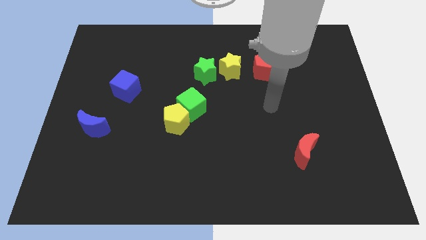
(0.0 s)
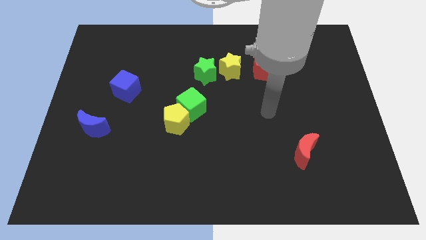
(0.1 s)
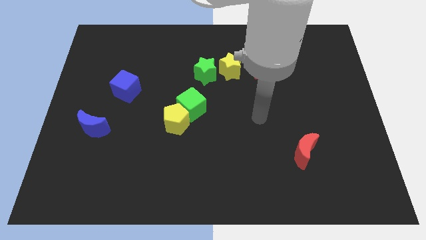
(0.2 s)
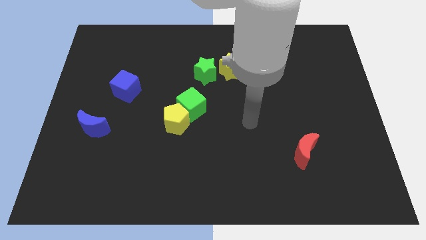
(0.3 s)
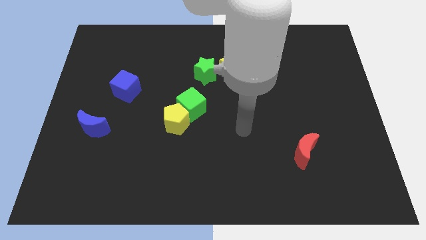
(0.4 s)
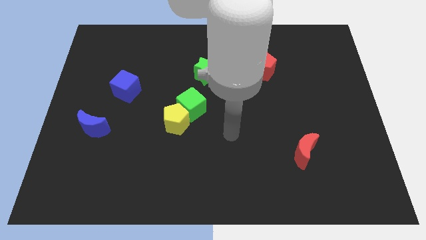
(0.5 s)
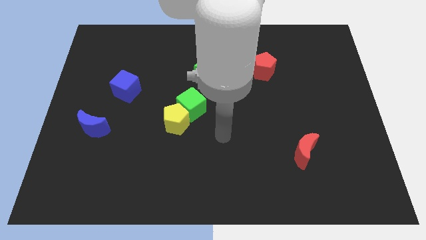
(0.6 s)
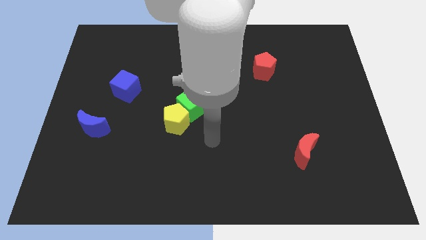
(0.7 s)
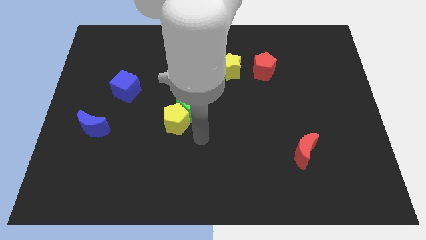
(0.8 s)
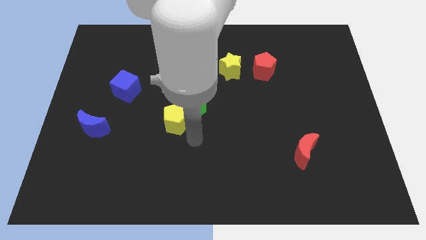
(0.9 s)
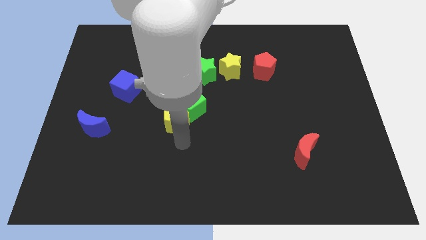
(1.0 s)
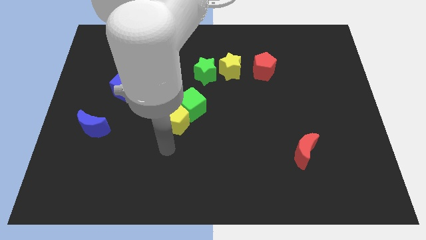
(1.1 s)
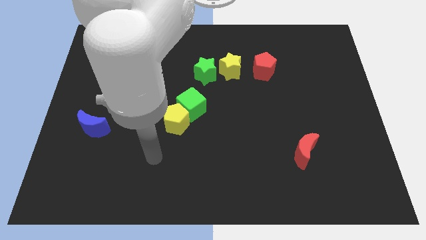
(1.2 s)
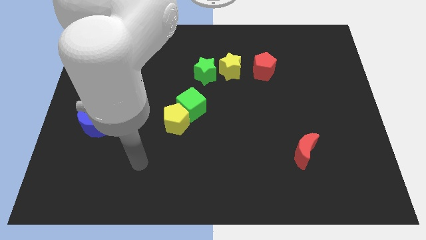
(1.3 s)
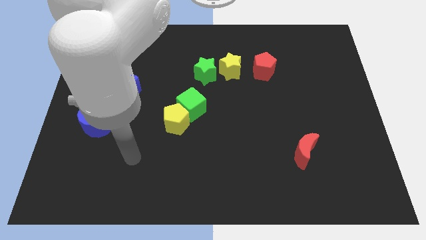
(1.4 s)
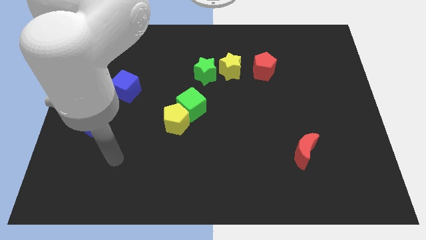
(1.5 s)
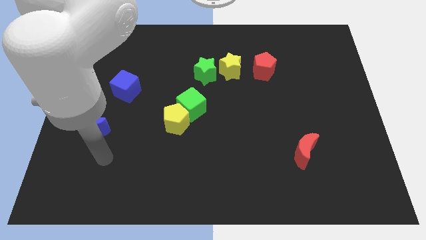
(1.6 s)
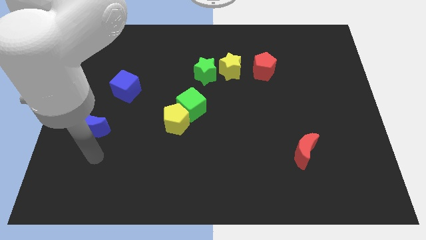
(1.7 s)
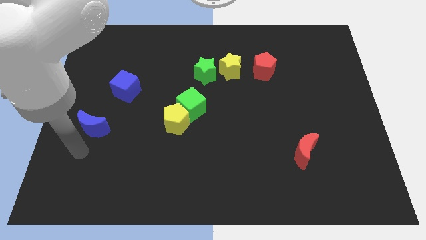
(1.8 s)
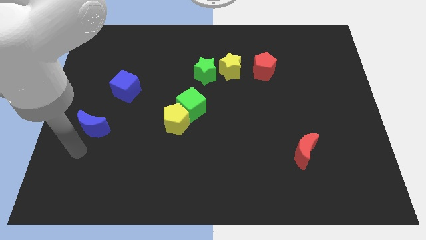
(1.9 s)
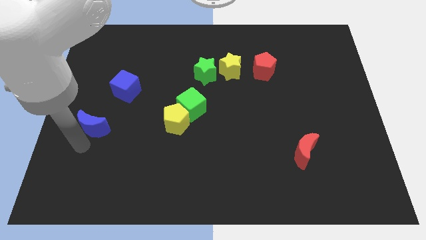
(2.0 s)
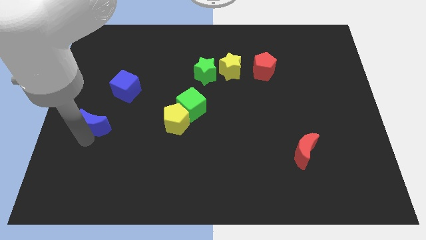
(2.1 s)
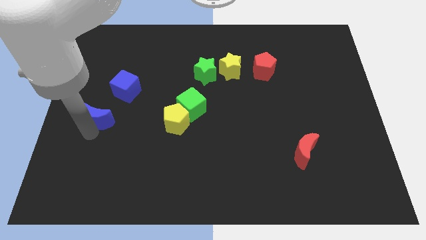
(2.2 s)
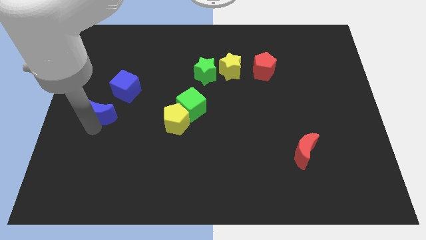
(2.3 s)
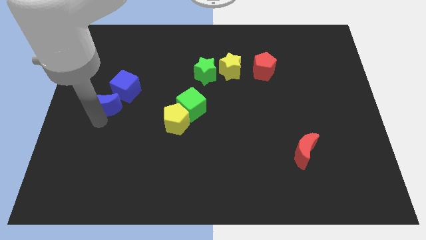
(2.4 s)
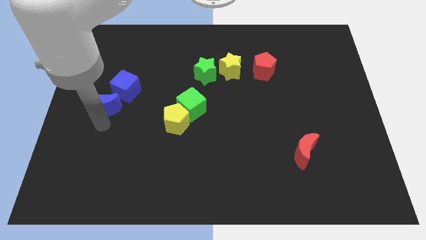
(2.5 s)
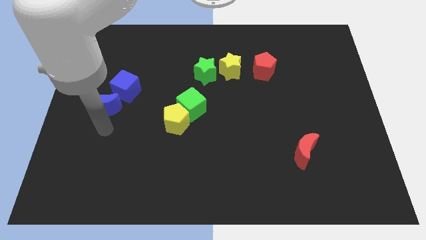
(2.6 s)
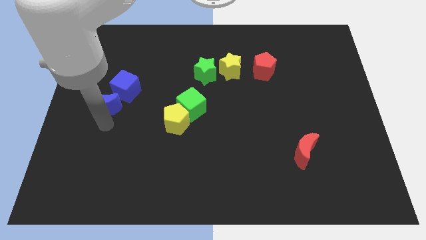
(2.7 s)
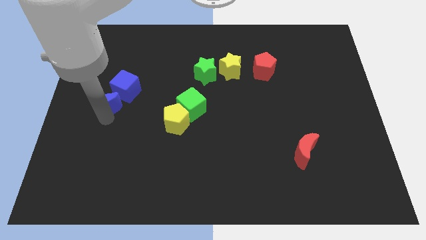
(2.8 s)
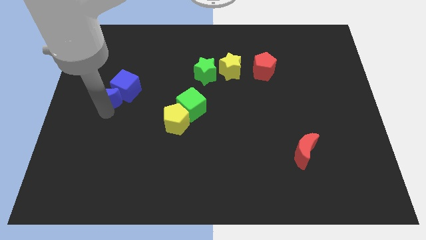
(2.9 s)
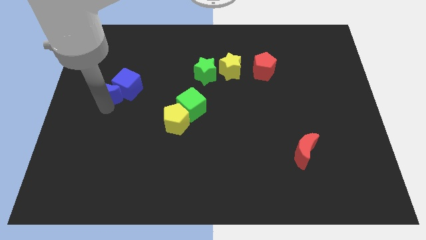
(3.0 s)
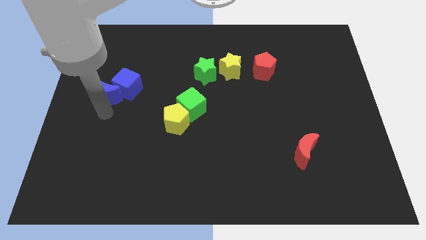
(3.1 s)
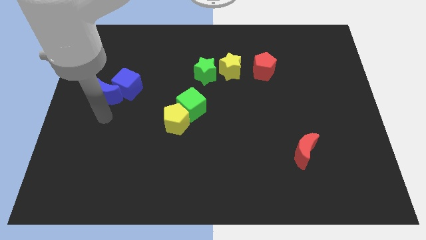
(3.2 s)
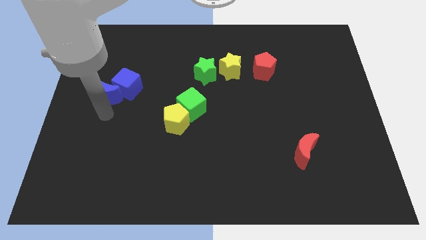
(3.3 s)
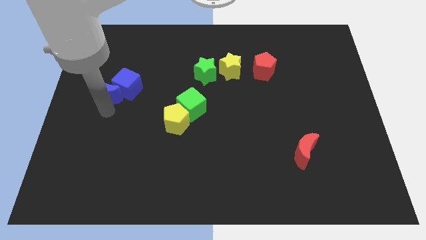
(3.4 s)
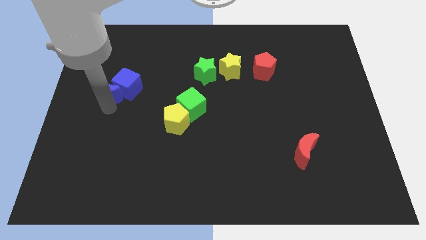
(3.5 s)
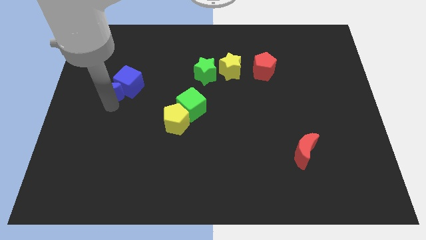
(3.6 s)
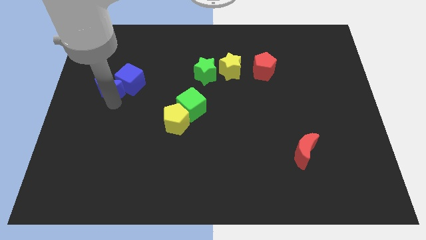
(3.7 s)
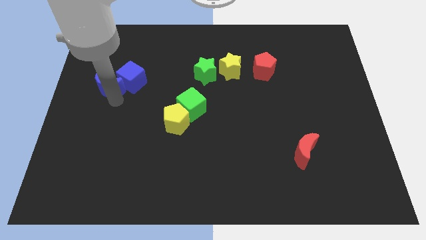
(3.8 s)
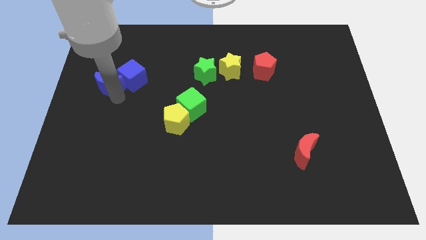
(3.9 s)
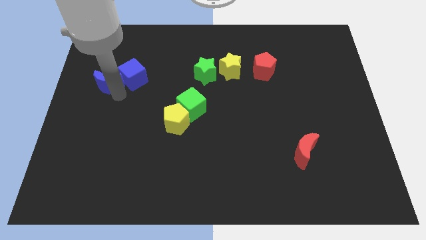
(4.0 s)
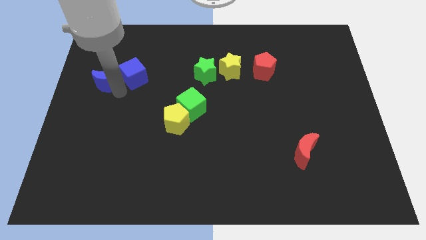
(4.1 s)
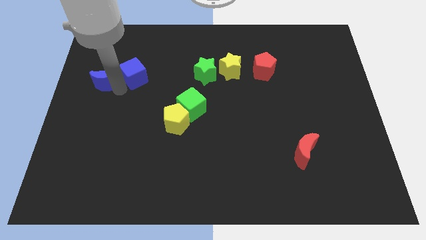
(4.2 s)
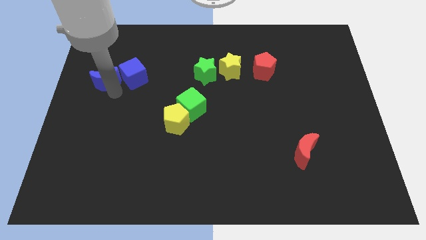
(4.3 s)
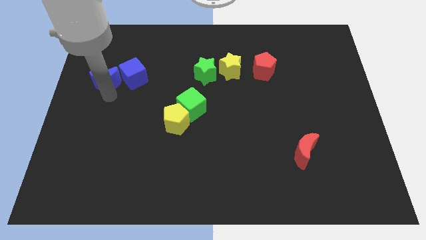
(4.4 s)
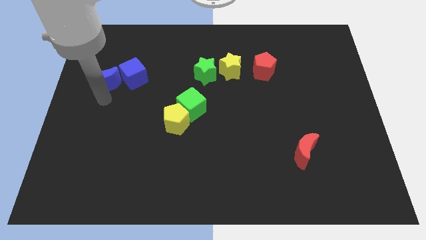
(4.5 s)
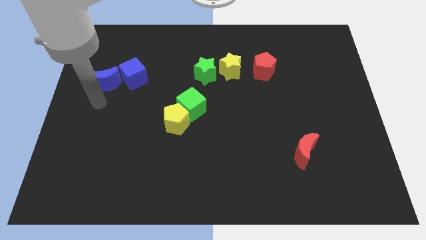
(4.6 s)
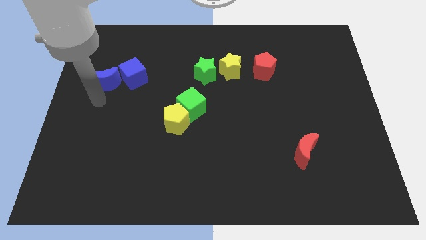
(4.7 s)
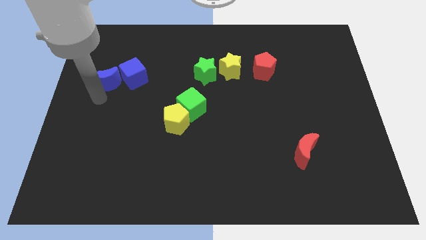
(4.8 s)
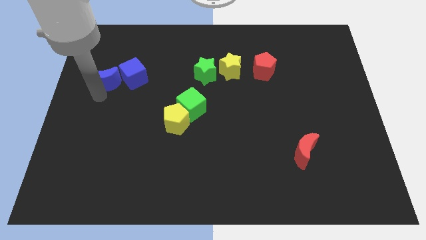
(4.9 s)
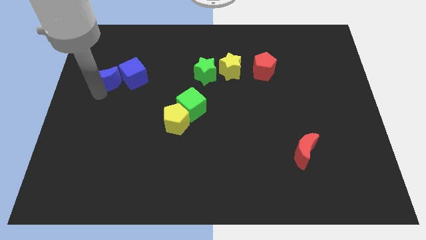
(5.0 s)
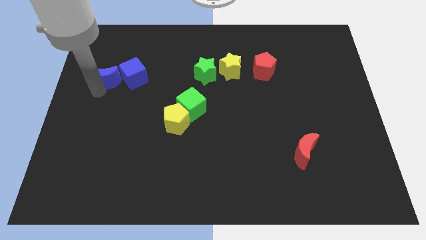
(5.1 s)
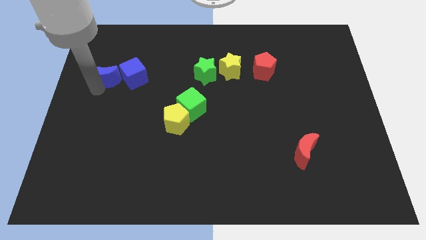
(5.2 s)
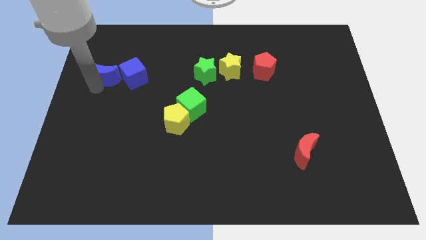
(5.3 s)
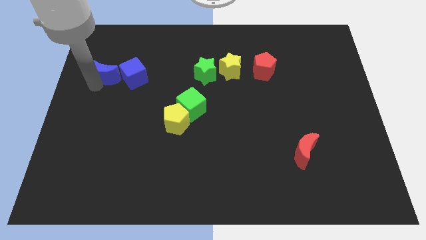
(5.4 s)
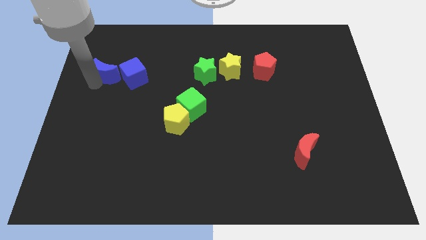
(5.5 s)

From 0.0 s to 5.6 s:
put the blue moon to the top left of the blue cube

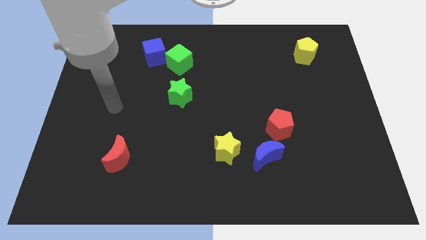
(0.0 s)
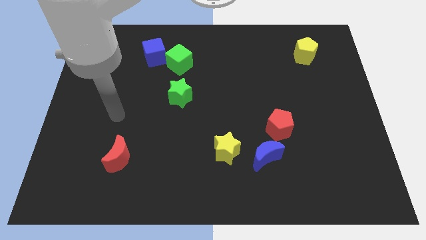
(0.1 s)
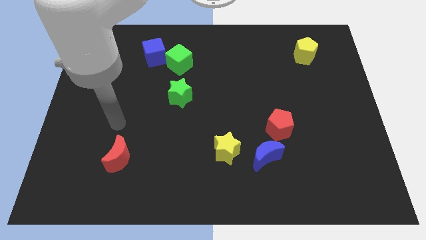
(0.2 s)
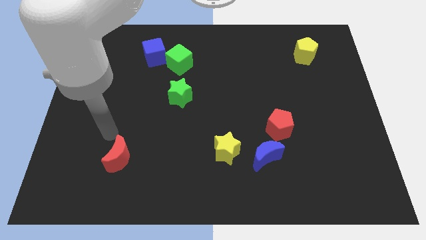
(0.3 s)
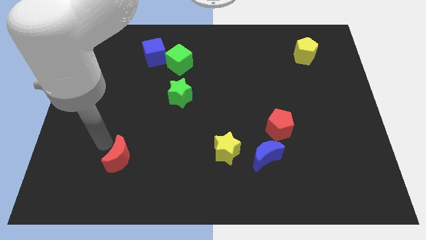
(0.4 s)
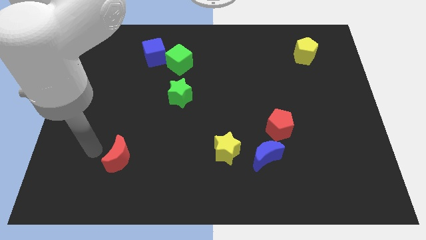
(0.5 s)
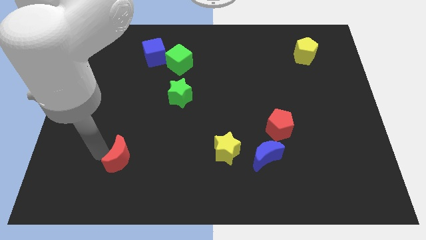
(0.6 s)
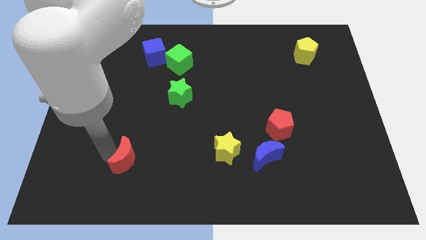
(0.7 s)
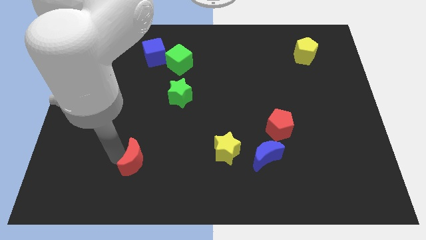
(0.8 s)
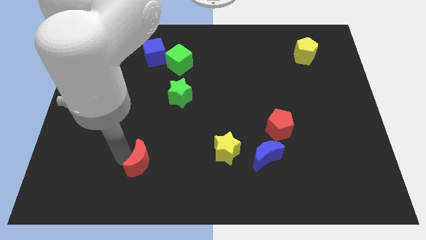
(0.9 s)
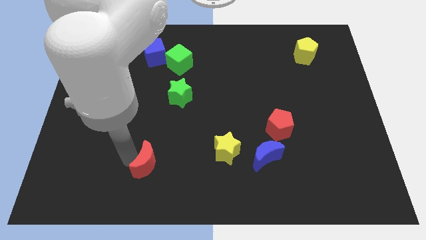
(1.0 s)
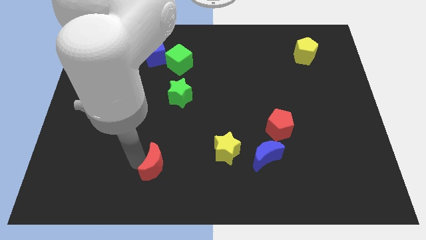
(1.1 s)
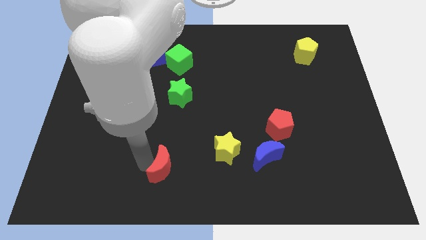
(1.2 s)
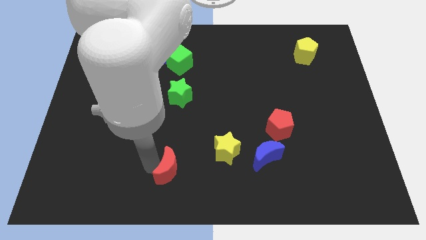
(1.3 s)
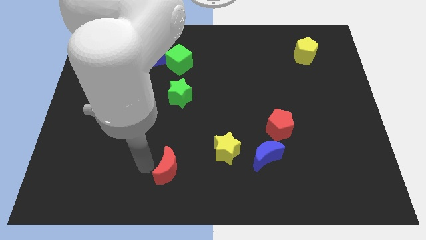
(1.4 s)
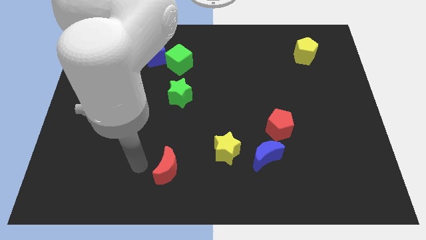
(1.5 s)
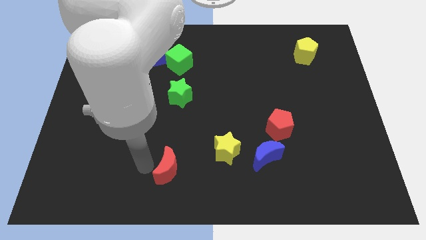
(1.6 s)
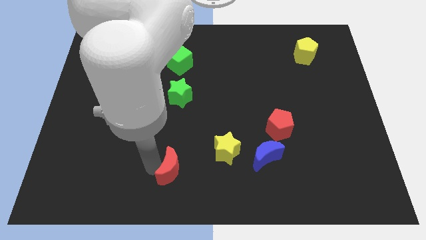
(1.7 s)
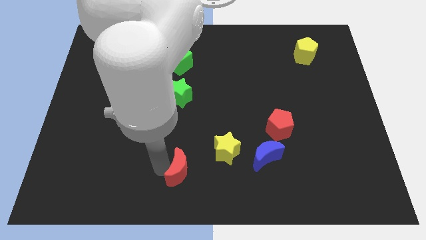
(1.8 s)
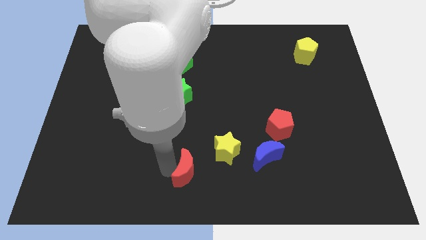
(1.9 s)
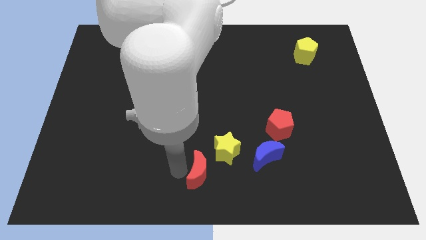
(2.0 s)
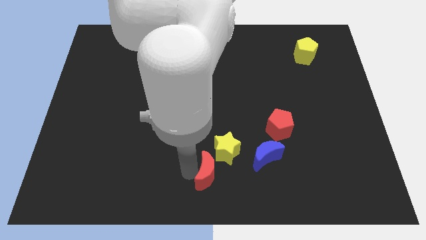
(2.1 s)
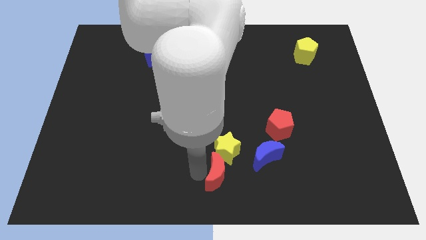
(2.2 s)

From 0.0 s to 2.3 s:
put the red moon to the bottom left of the blue moon
